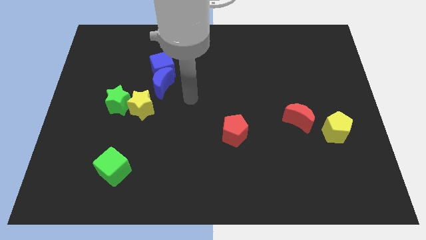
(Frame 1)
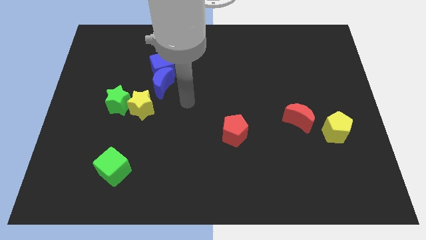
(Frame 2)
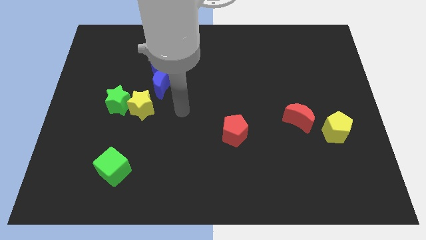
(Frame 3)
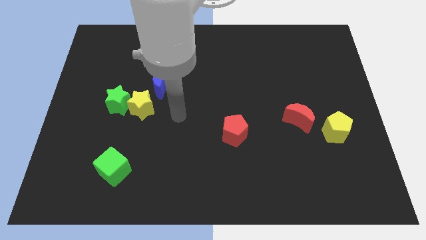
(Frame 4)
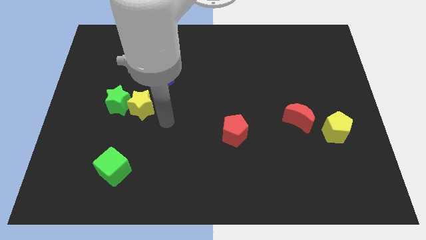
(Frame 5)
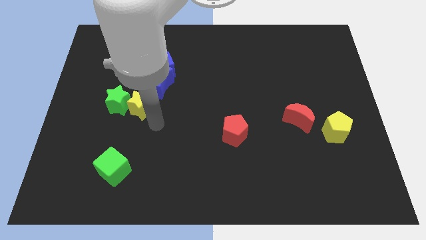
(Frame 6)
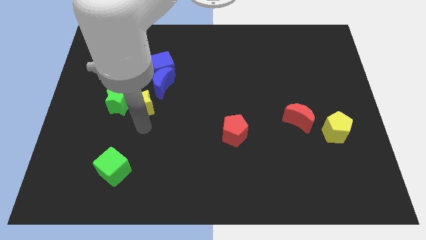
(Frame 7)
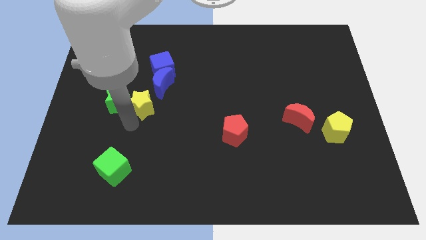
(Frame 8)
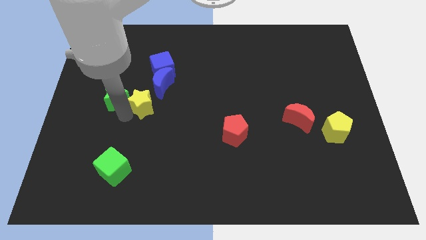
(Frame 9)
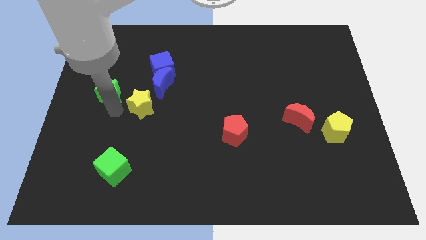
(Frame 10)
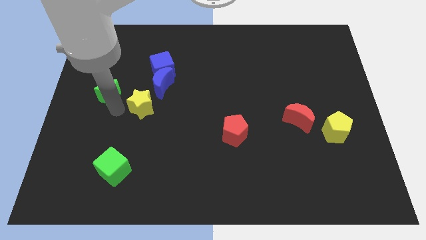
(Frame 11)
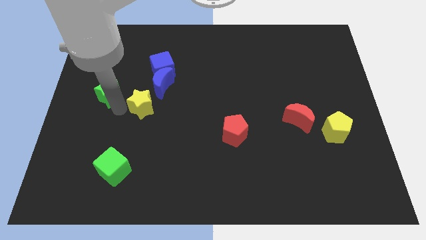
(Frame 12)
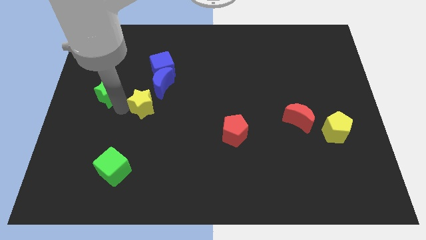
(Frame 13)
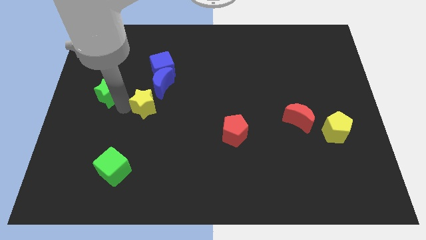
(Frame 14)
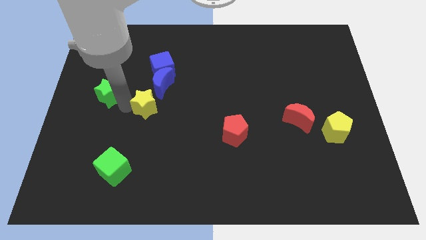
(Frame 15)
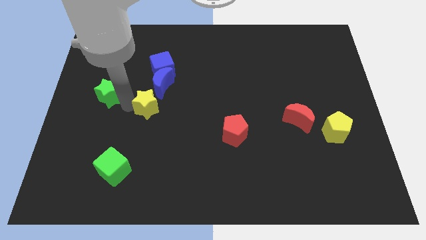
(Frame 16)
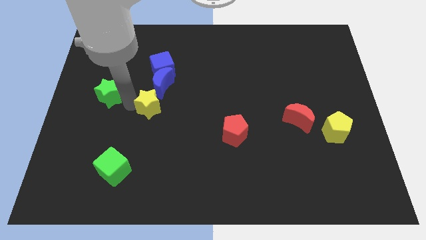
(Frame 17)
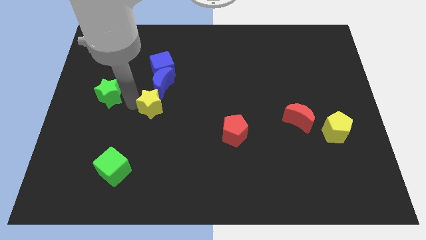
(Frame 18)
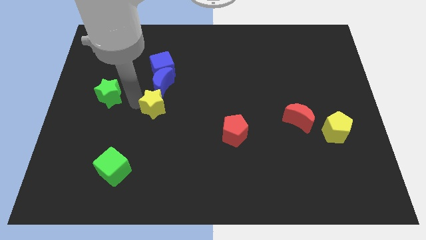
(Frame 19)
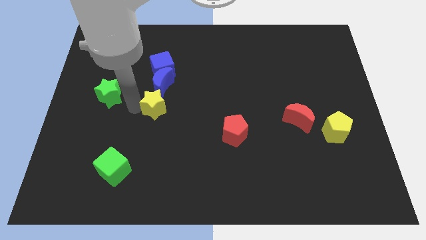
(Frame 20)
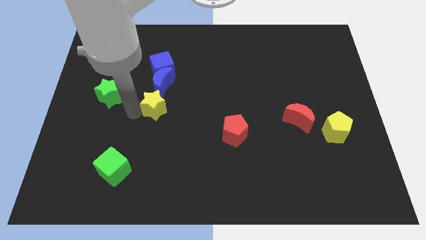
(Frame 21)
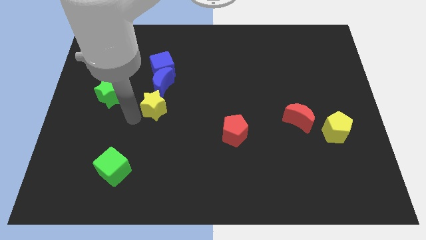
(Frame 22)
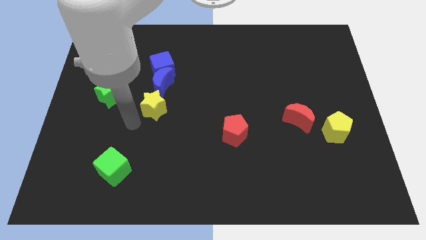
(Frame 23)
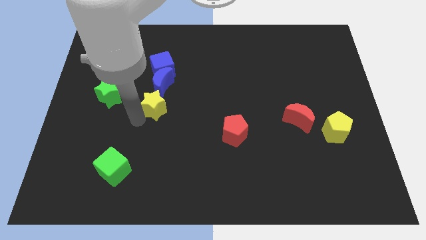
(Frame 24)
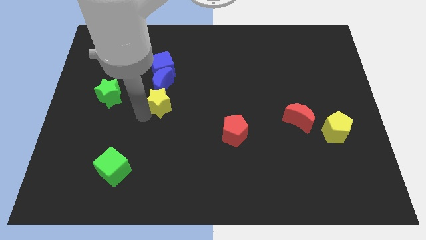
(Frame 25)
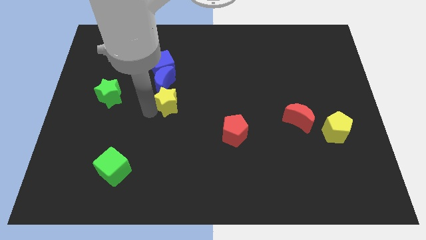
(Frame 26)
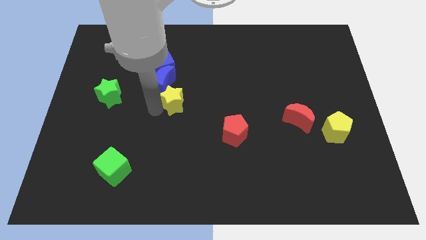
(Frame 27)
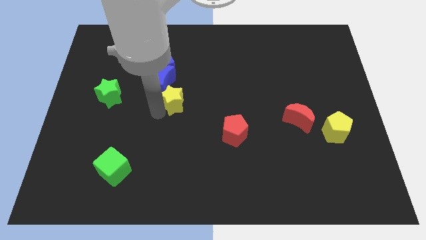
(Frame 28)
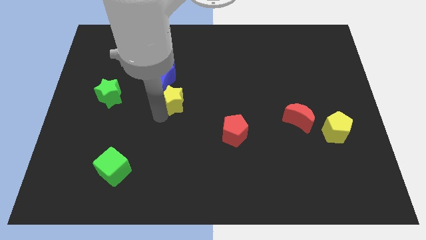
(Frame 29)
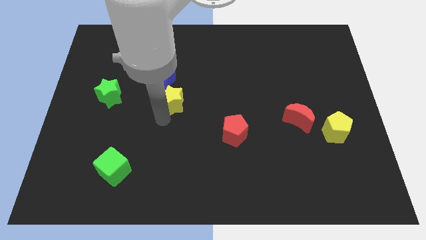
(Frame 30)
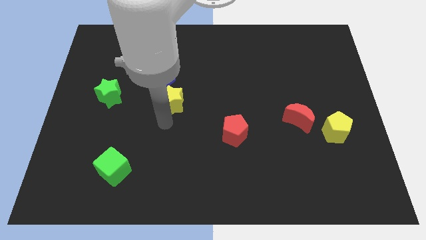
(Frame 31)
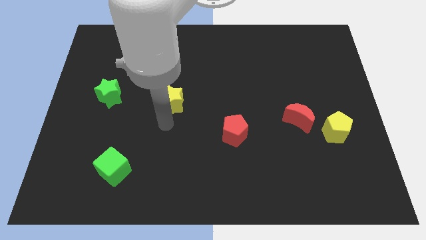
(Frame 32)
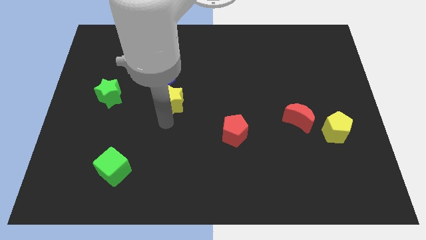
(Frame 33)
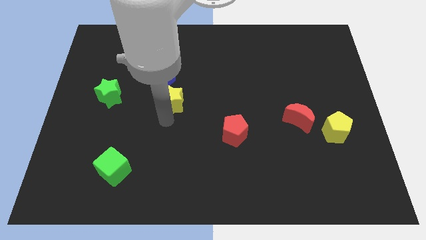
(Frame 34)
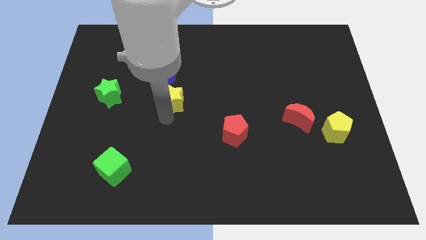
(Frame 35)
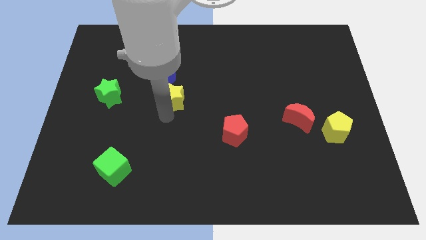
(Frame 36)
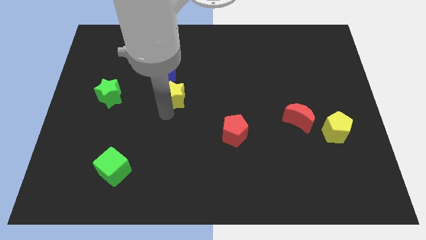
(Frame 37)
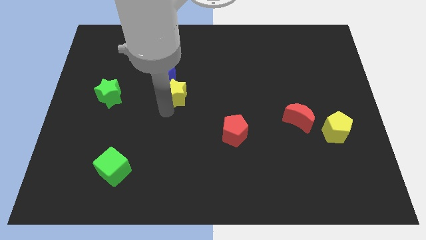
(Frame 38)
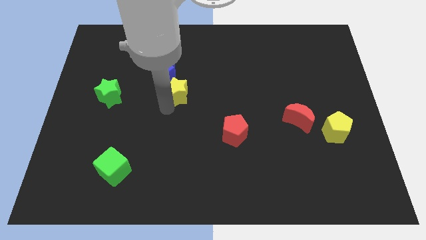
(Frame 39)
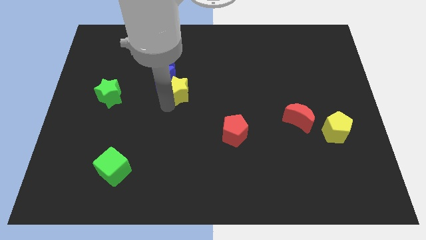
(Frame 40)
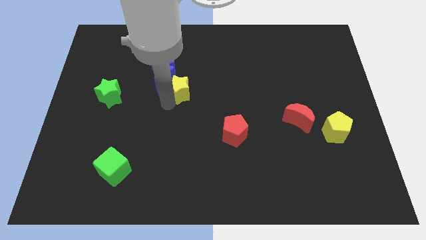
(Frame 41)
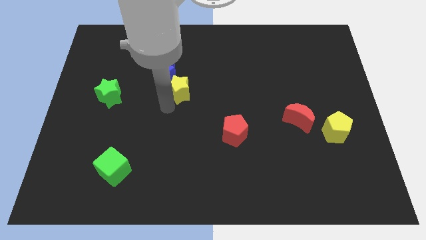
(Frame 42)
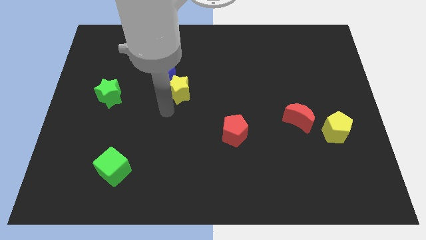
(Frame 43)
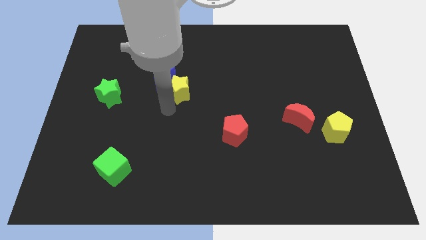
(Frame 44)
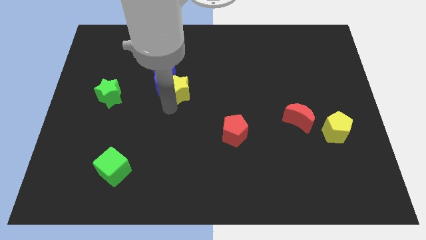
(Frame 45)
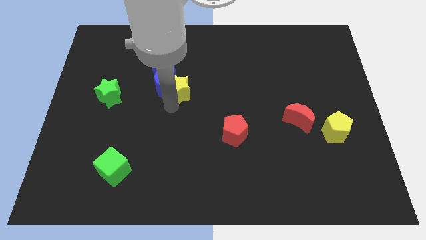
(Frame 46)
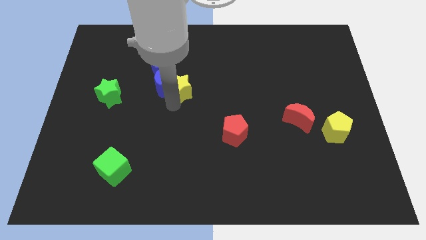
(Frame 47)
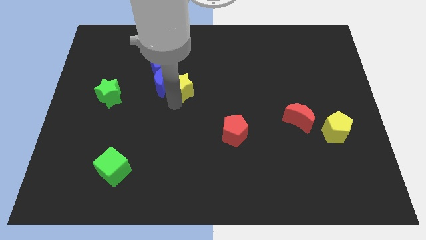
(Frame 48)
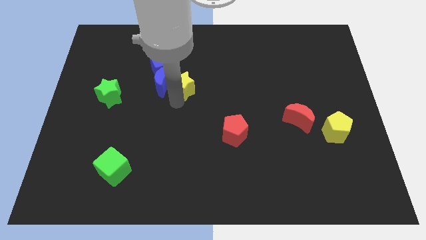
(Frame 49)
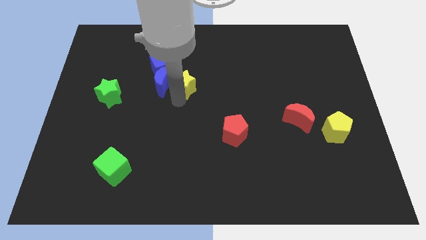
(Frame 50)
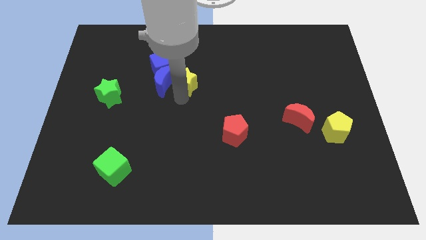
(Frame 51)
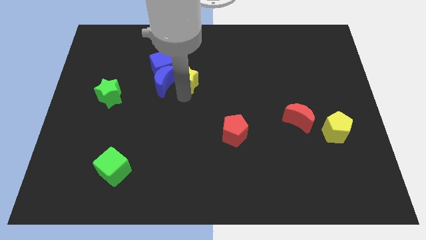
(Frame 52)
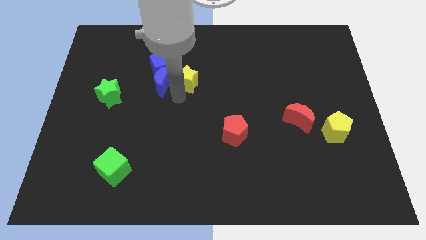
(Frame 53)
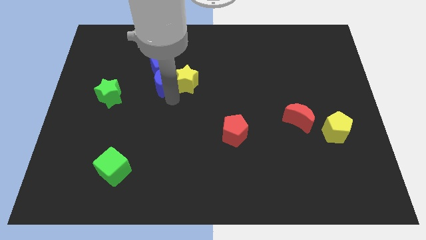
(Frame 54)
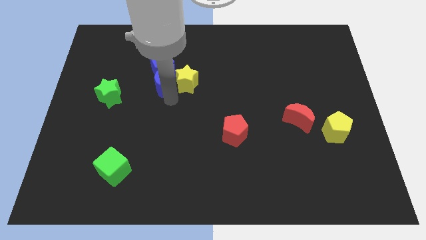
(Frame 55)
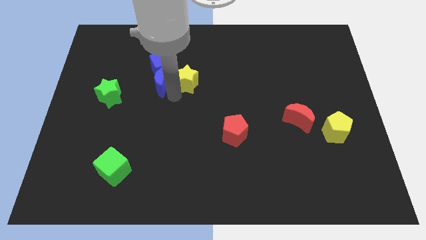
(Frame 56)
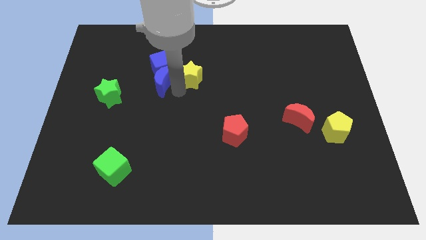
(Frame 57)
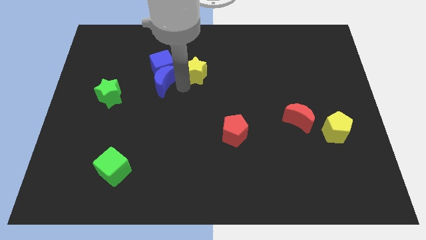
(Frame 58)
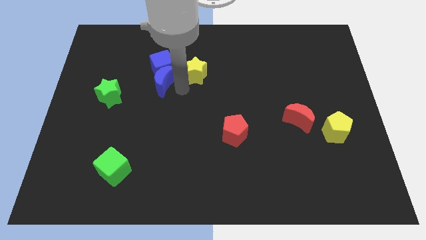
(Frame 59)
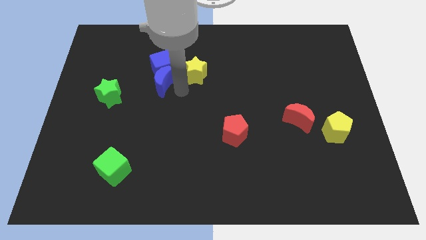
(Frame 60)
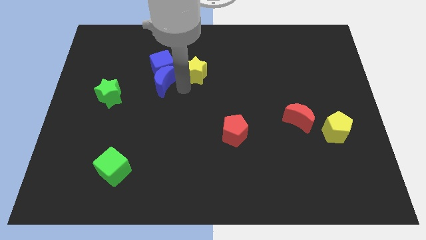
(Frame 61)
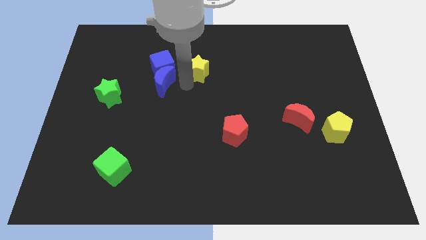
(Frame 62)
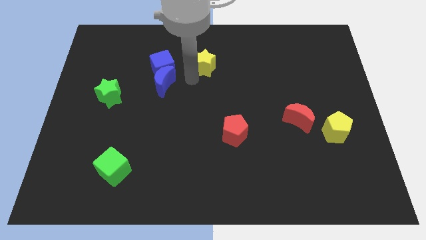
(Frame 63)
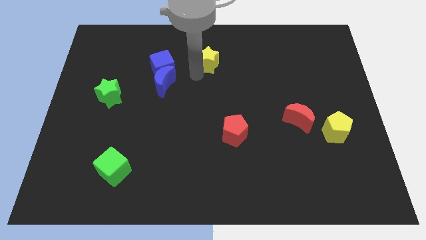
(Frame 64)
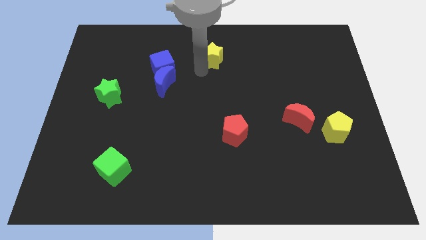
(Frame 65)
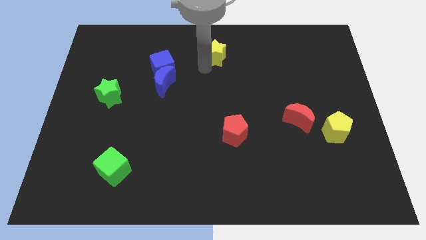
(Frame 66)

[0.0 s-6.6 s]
put the yellow star to the top side

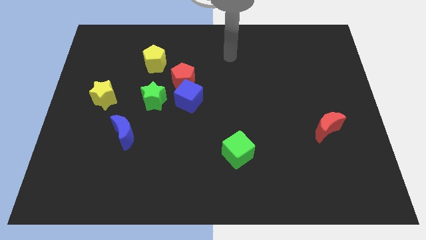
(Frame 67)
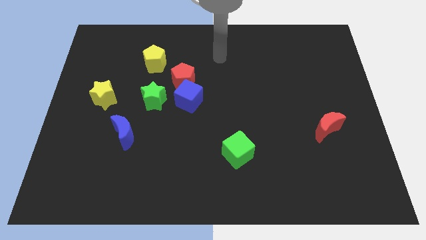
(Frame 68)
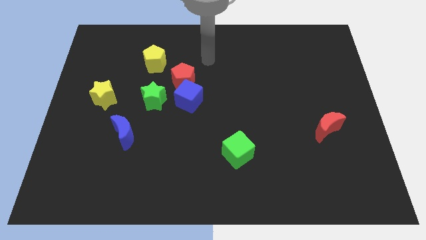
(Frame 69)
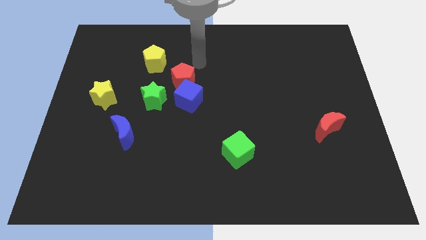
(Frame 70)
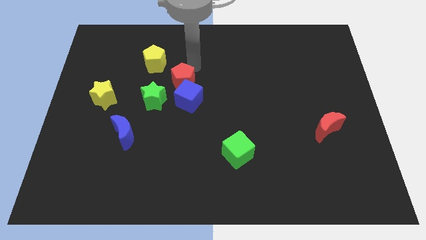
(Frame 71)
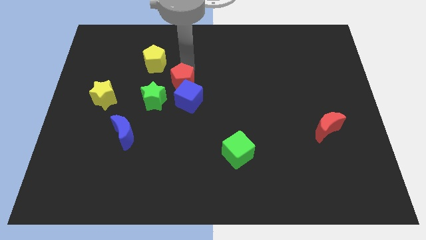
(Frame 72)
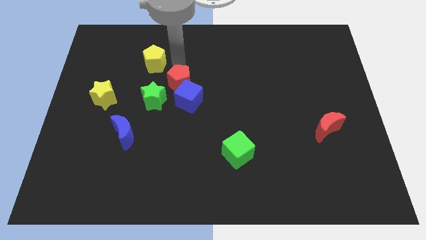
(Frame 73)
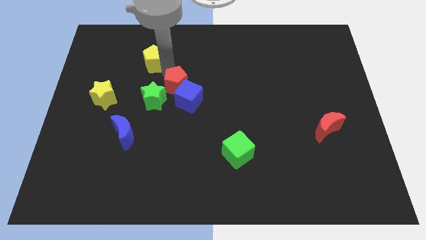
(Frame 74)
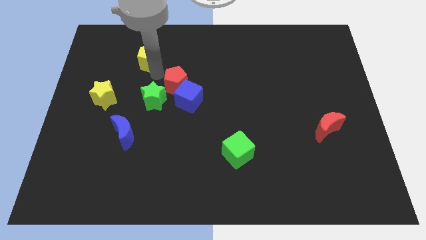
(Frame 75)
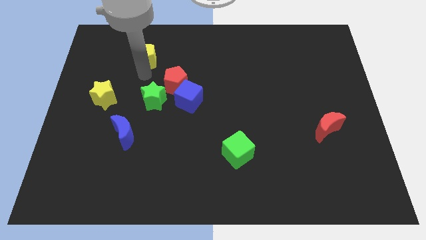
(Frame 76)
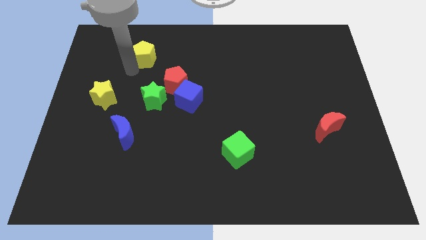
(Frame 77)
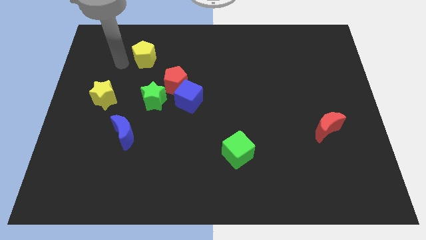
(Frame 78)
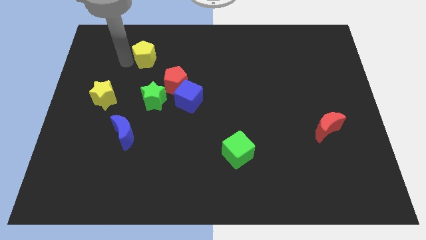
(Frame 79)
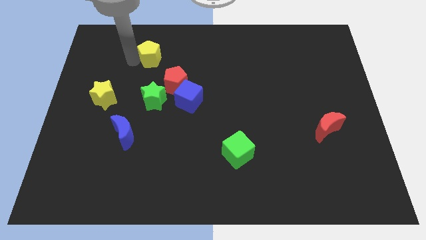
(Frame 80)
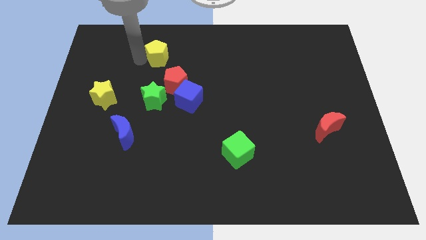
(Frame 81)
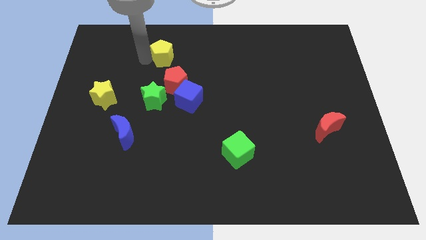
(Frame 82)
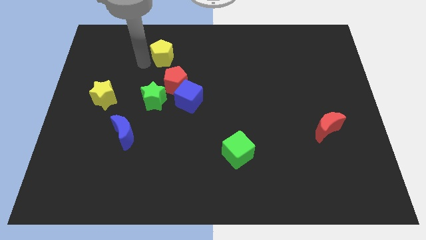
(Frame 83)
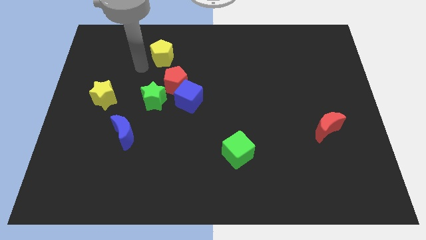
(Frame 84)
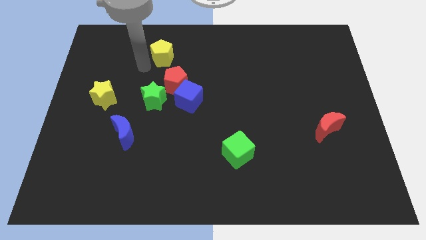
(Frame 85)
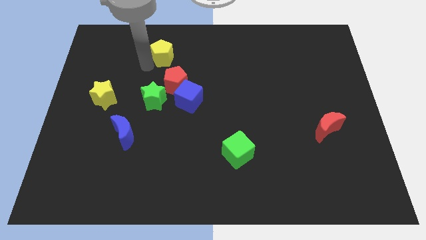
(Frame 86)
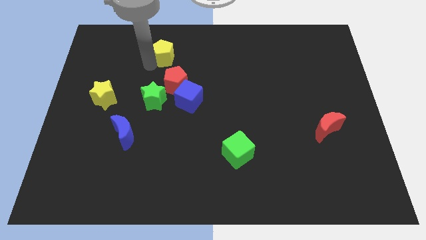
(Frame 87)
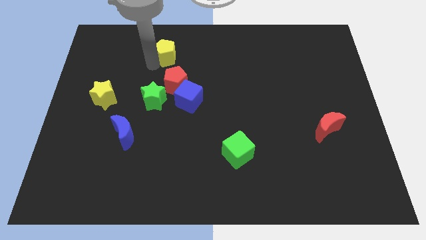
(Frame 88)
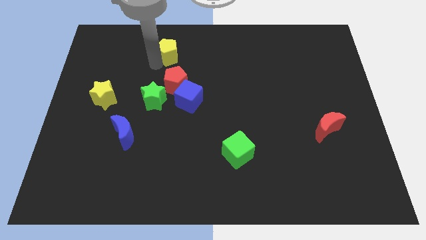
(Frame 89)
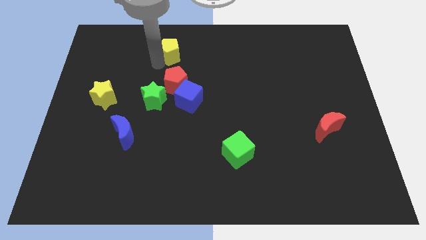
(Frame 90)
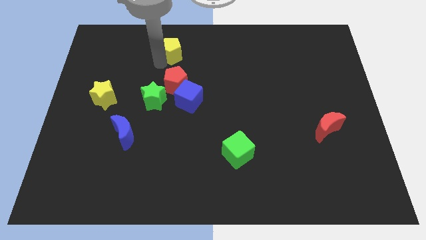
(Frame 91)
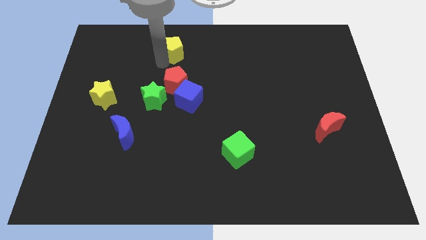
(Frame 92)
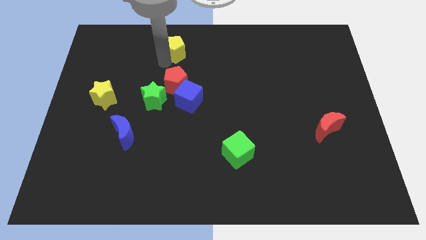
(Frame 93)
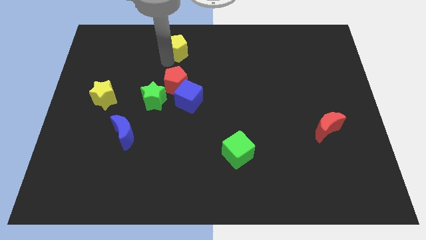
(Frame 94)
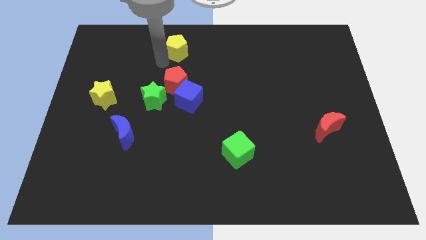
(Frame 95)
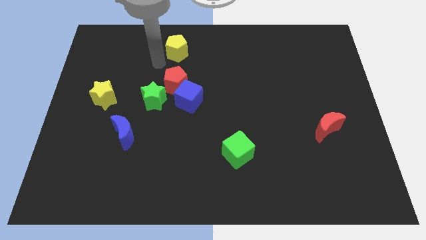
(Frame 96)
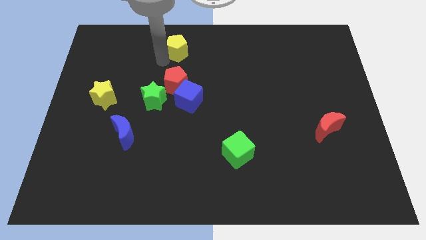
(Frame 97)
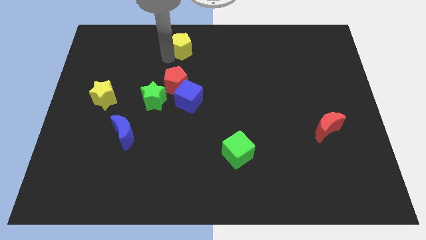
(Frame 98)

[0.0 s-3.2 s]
slide the yellow pentagon to the top side
